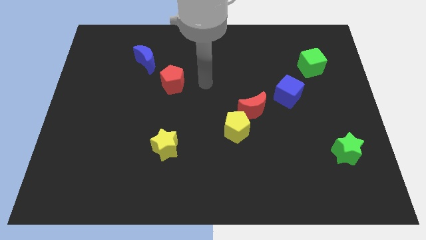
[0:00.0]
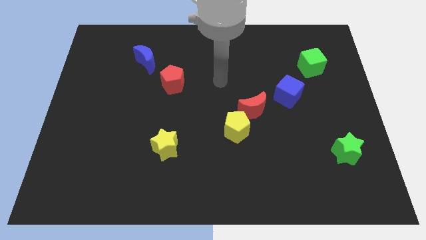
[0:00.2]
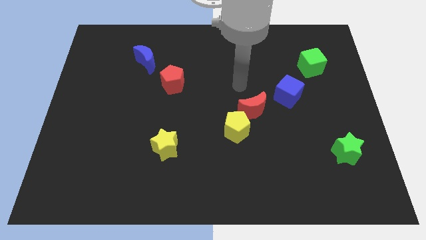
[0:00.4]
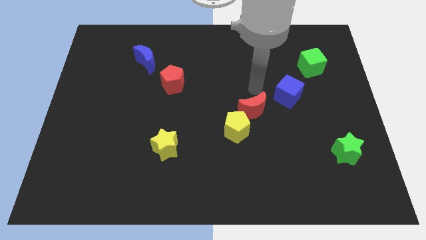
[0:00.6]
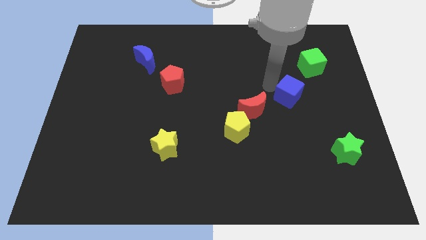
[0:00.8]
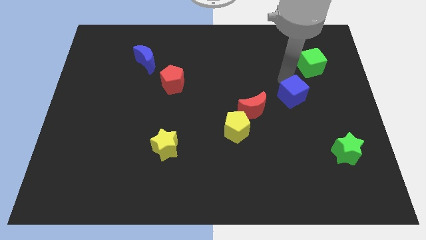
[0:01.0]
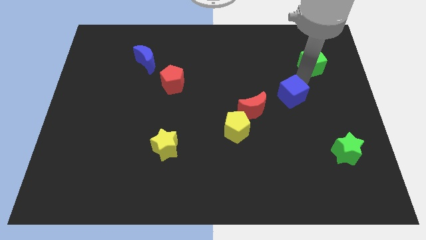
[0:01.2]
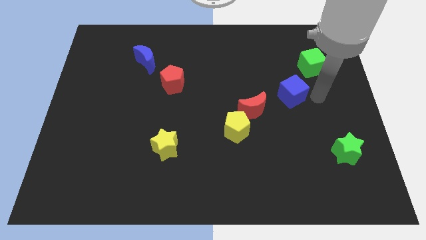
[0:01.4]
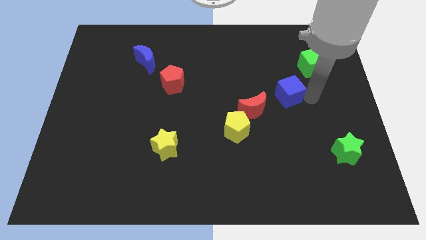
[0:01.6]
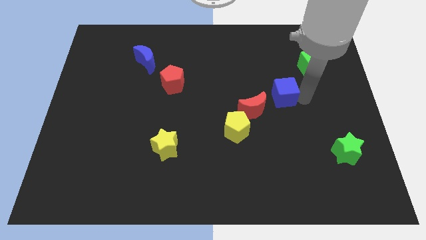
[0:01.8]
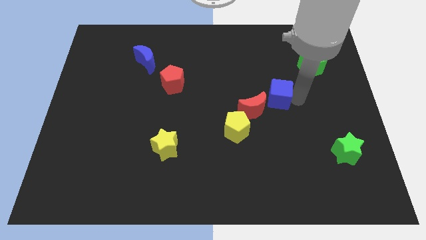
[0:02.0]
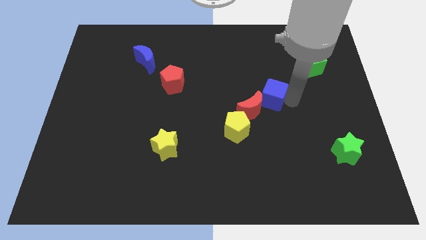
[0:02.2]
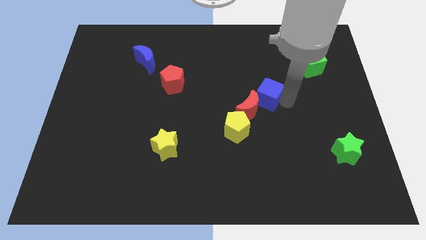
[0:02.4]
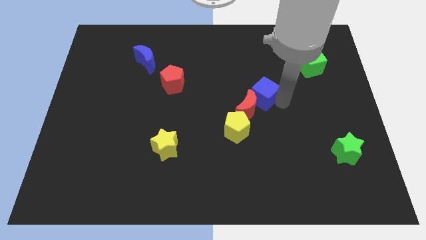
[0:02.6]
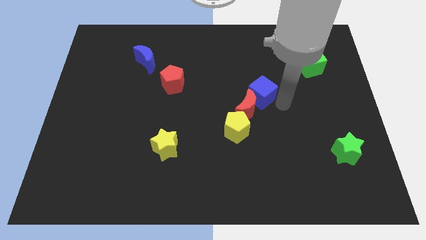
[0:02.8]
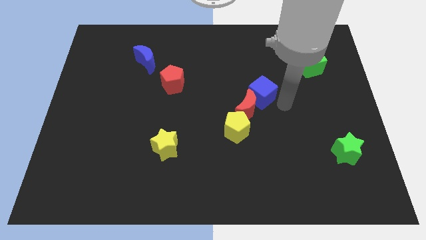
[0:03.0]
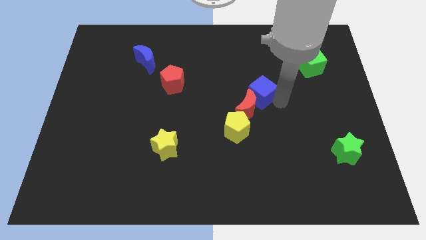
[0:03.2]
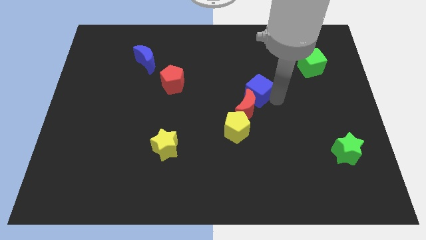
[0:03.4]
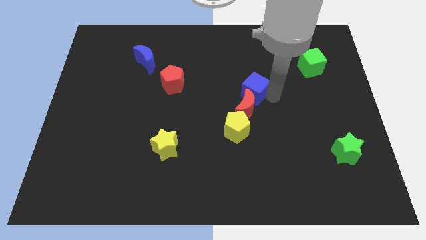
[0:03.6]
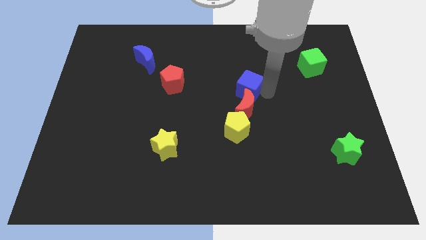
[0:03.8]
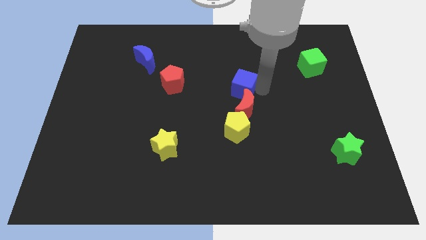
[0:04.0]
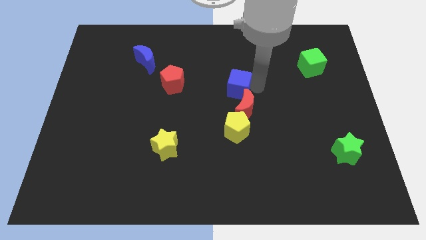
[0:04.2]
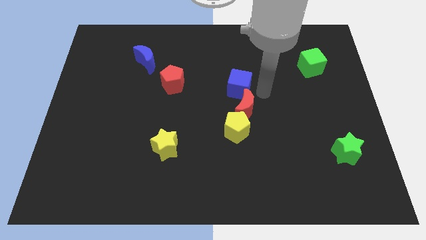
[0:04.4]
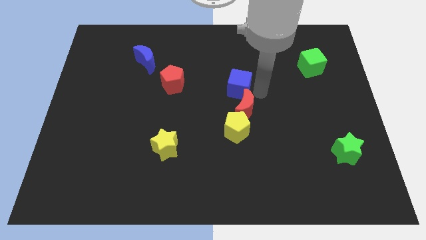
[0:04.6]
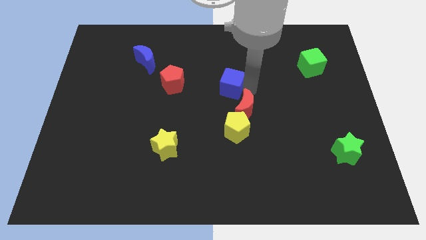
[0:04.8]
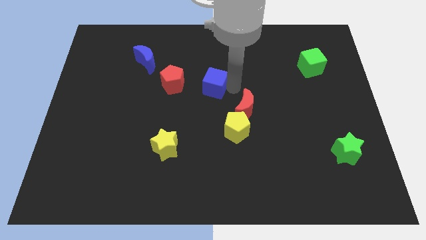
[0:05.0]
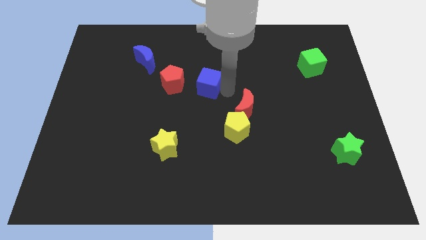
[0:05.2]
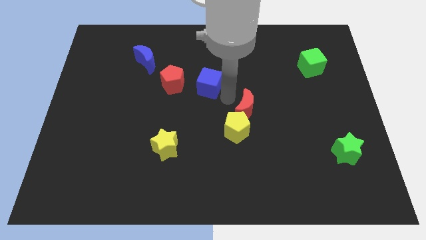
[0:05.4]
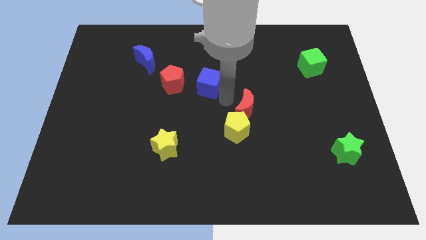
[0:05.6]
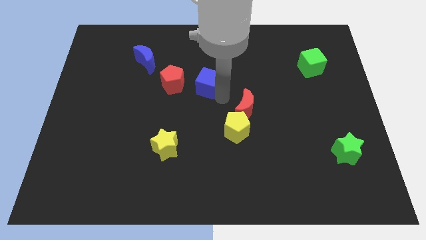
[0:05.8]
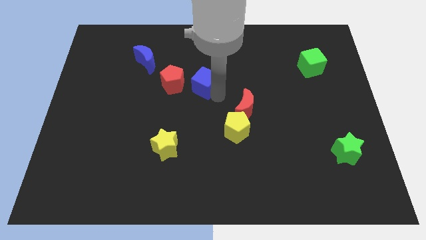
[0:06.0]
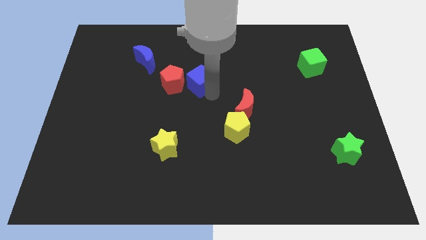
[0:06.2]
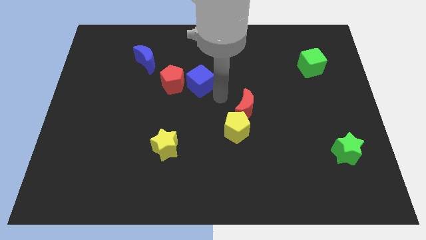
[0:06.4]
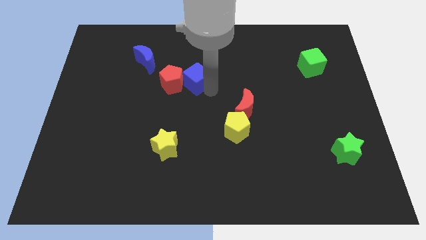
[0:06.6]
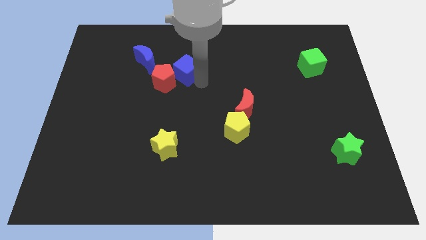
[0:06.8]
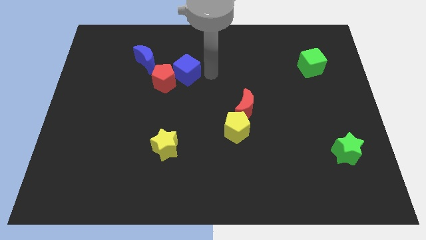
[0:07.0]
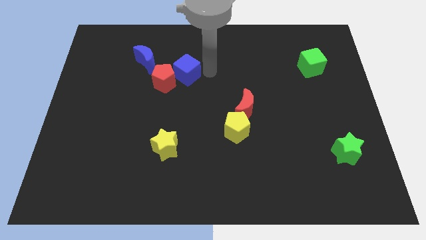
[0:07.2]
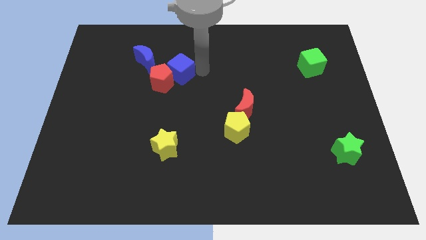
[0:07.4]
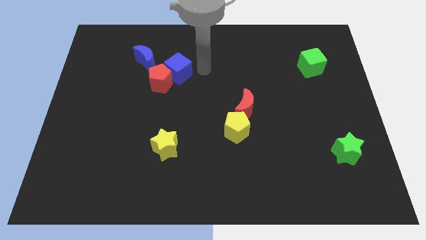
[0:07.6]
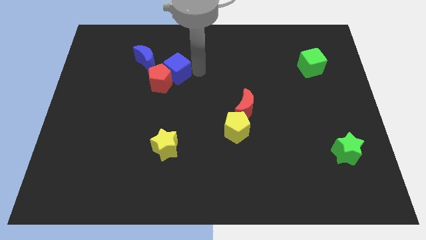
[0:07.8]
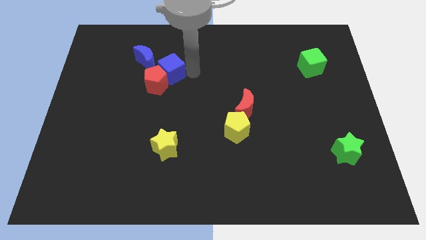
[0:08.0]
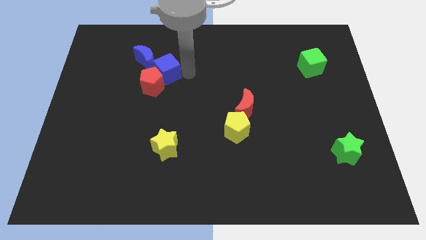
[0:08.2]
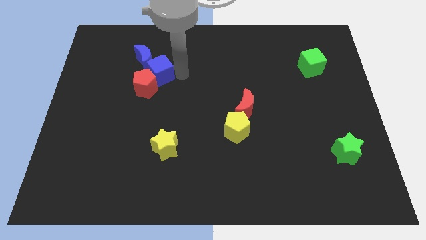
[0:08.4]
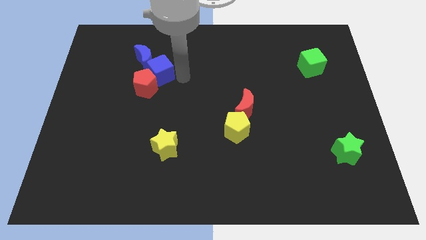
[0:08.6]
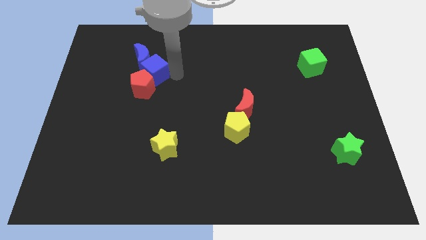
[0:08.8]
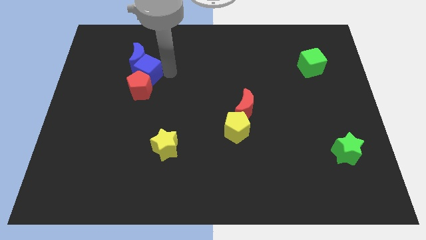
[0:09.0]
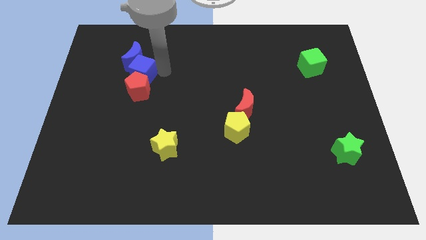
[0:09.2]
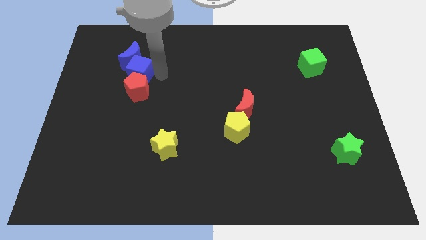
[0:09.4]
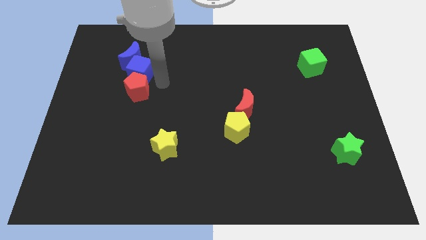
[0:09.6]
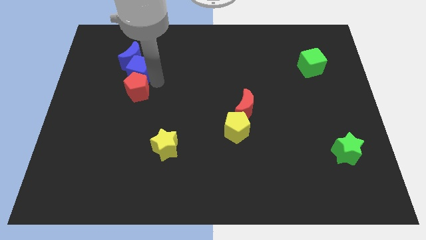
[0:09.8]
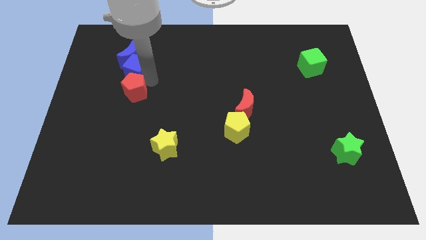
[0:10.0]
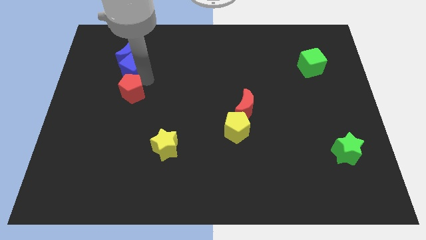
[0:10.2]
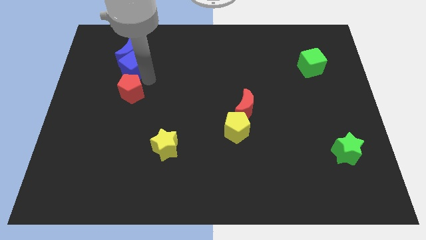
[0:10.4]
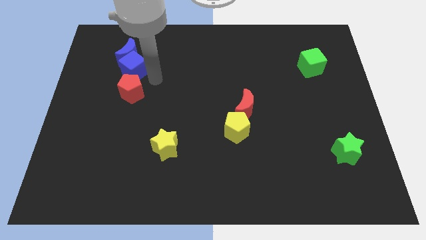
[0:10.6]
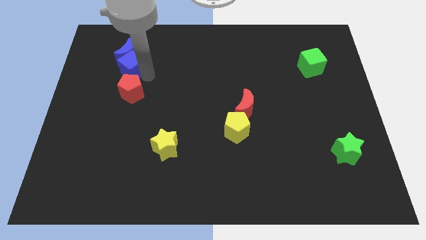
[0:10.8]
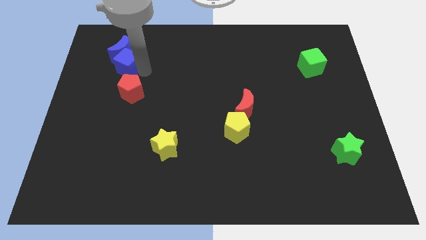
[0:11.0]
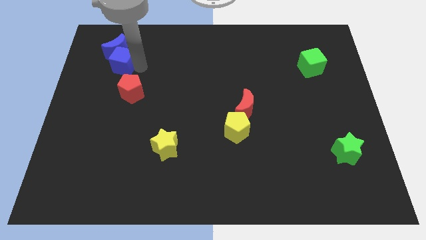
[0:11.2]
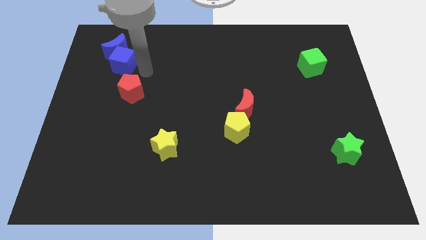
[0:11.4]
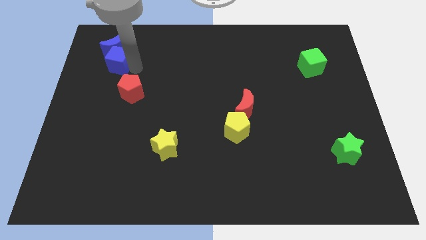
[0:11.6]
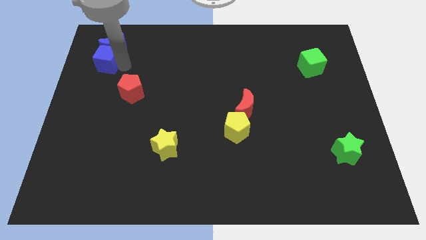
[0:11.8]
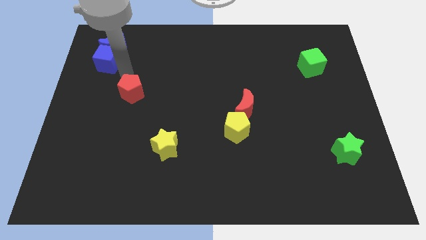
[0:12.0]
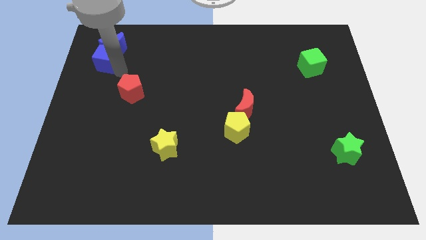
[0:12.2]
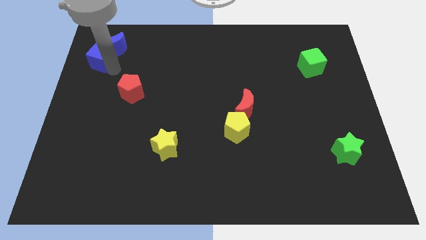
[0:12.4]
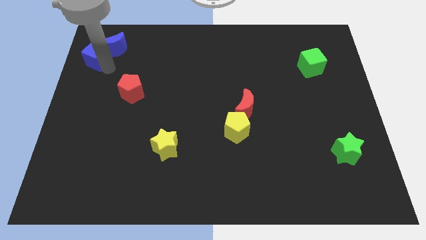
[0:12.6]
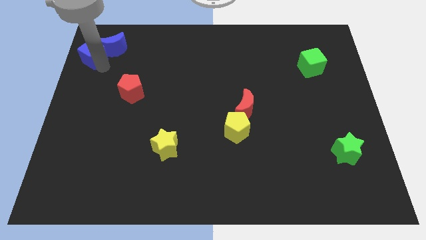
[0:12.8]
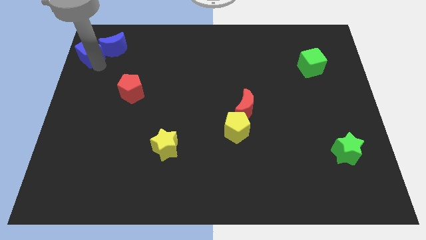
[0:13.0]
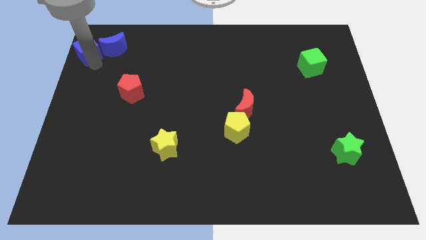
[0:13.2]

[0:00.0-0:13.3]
push the blue cube to the top left corner
